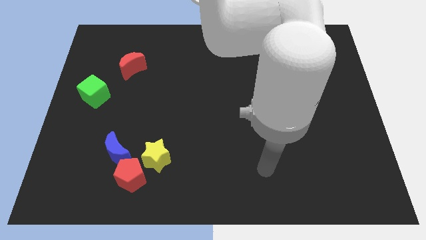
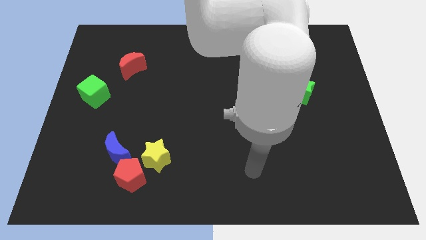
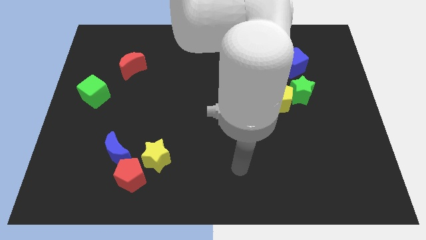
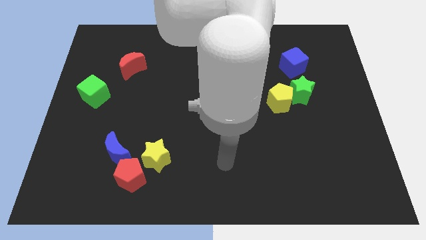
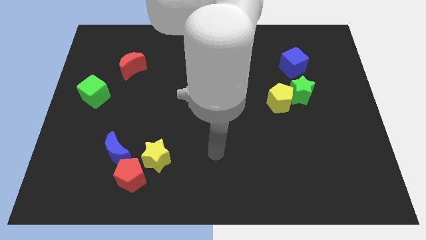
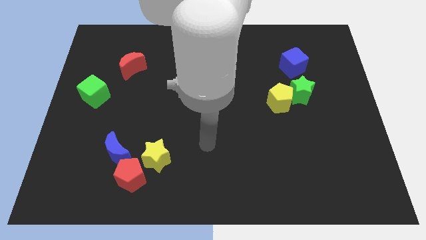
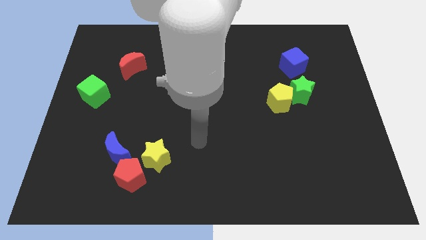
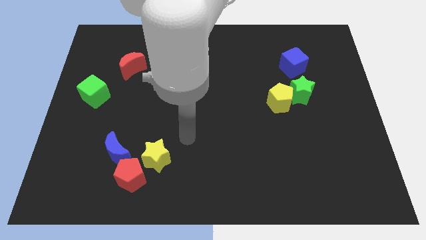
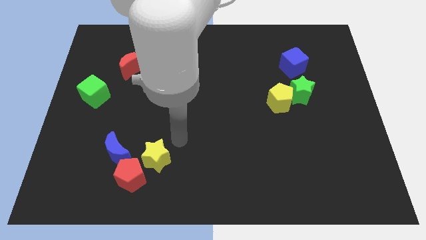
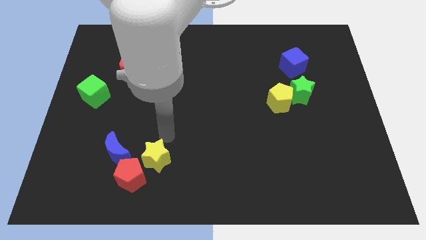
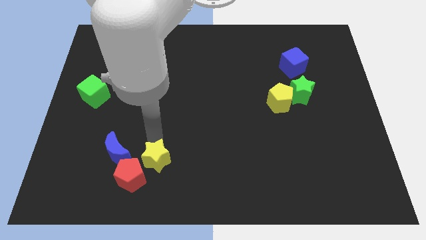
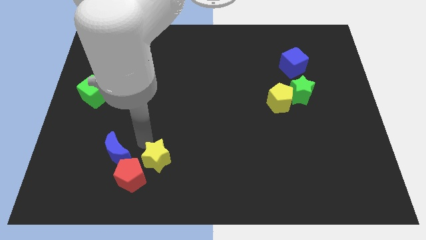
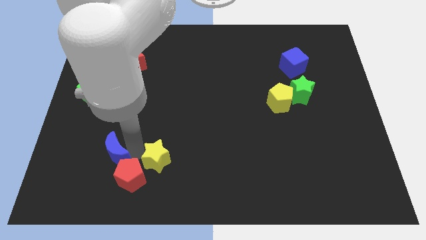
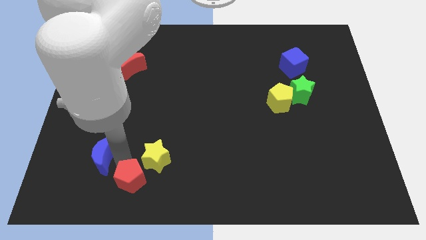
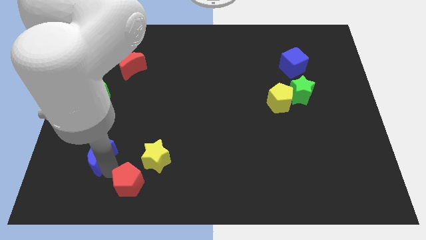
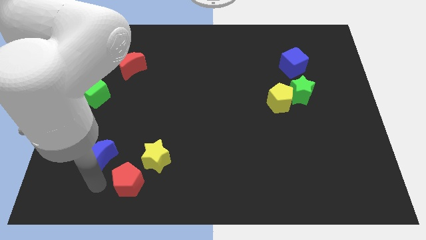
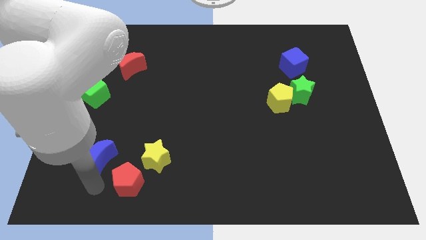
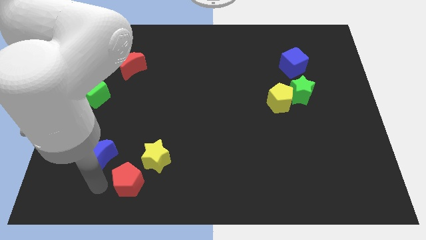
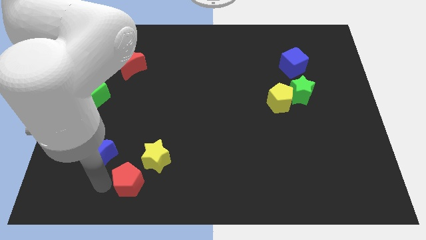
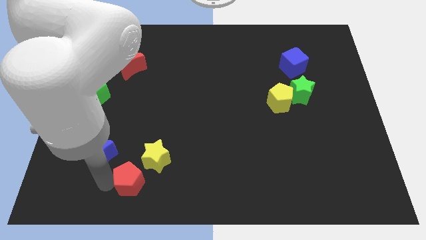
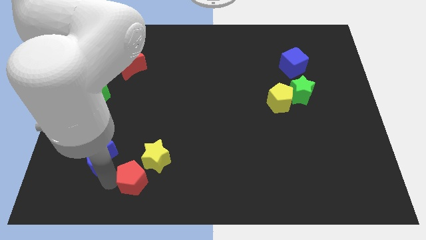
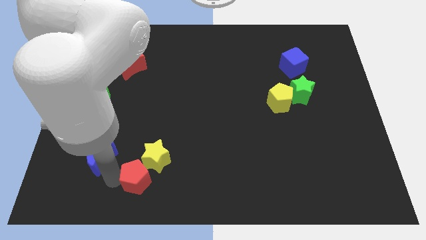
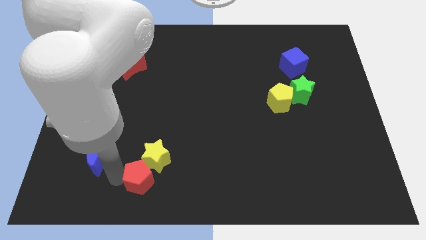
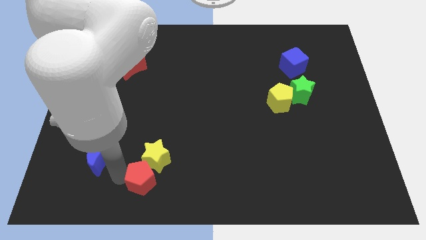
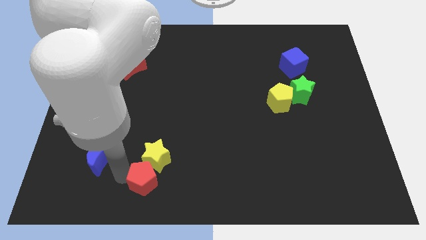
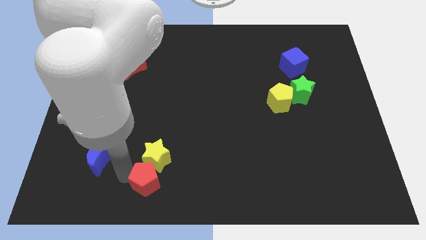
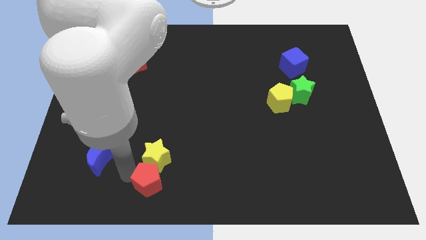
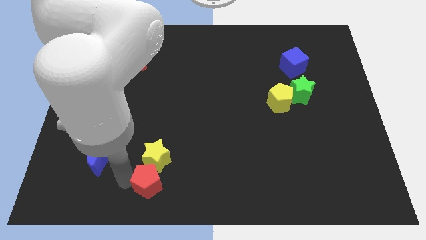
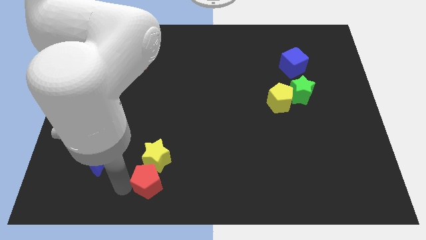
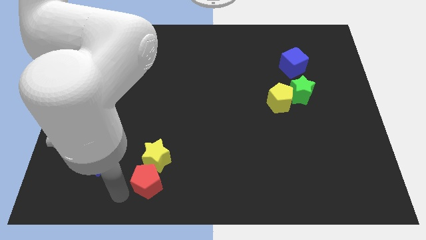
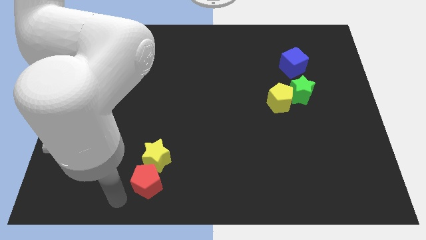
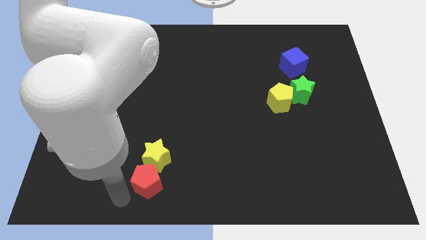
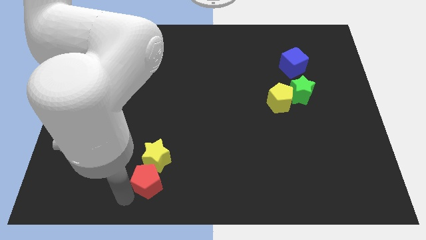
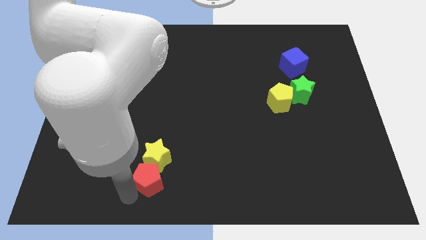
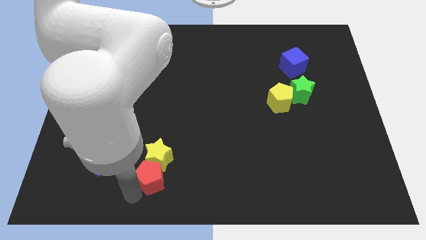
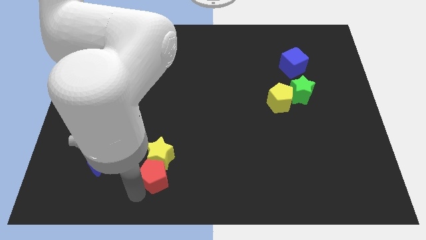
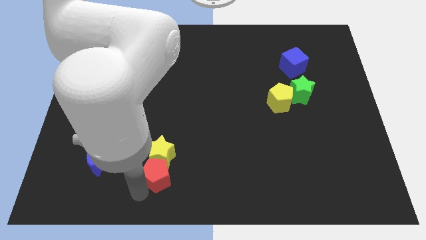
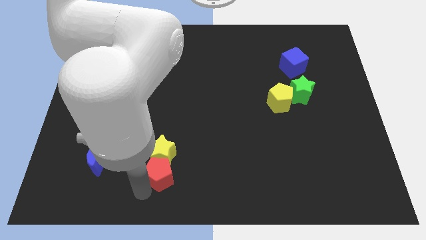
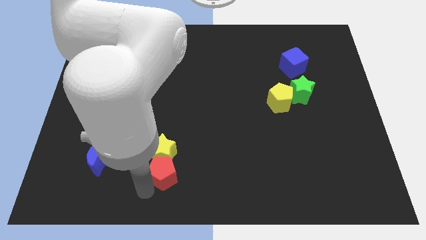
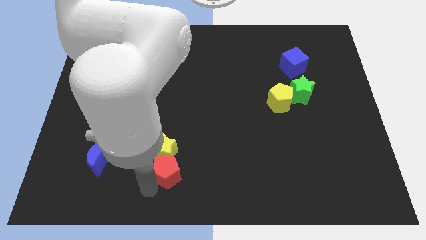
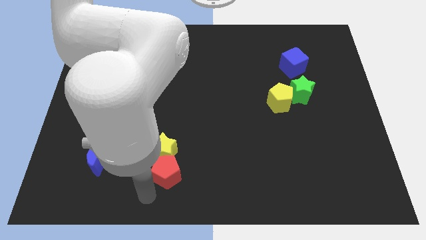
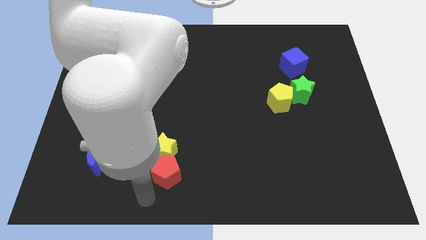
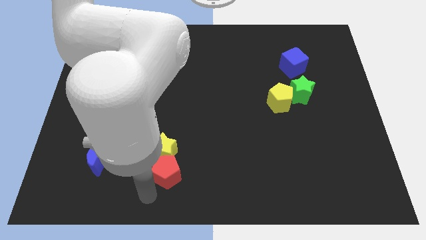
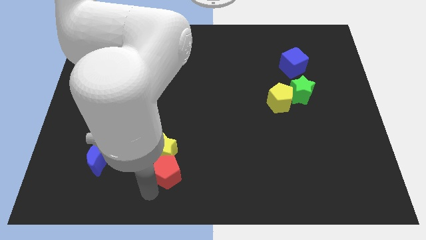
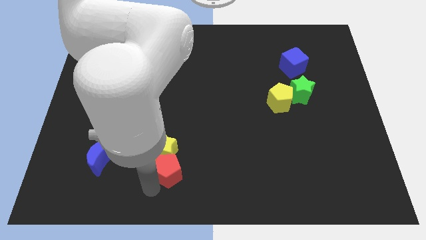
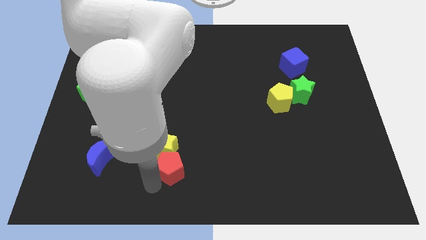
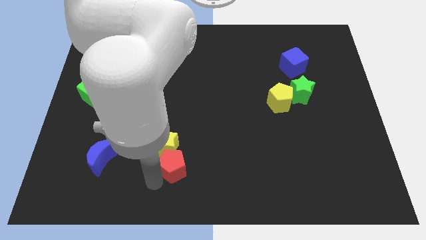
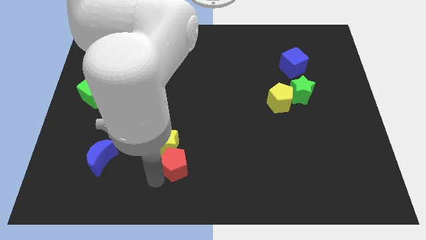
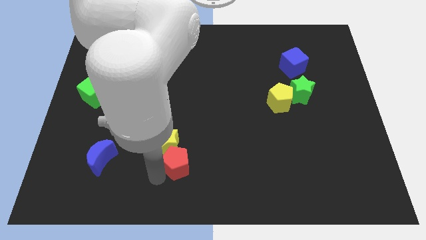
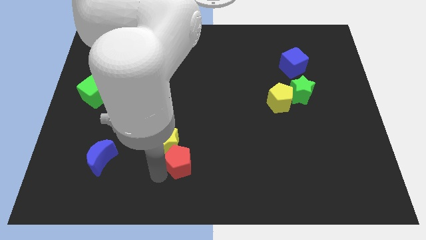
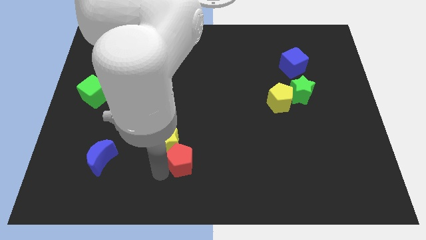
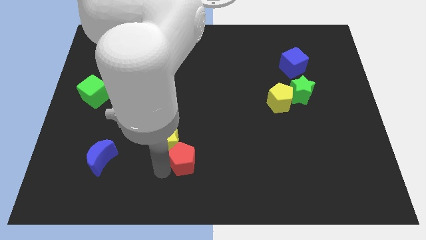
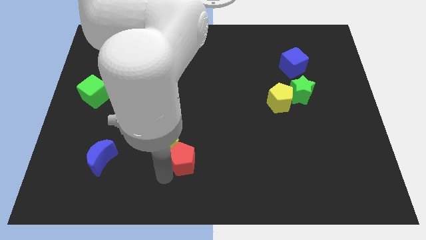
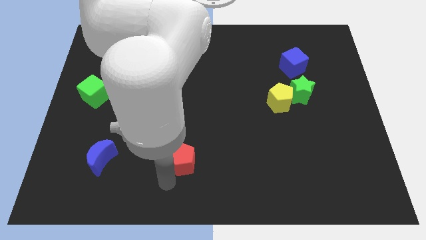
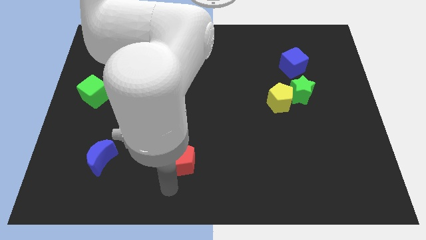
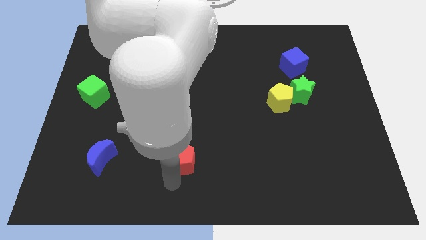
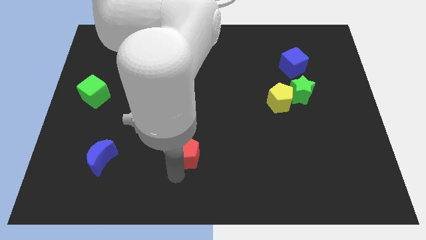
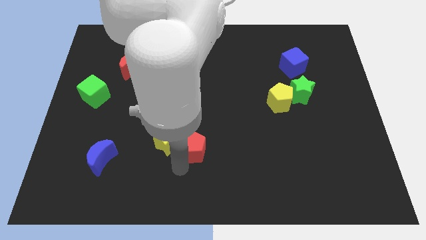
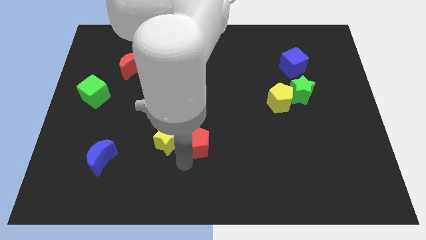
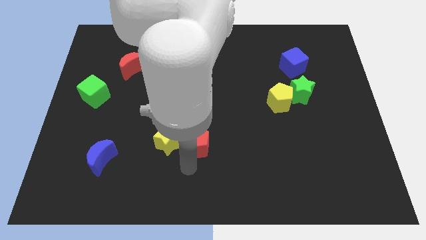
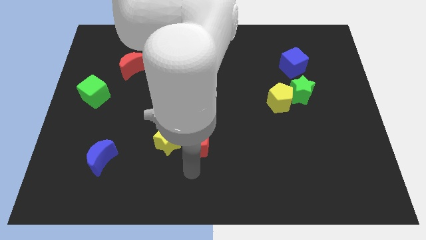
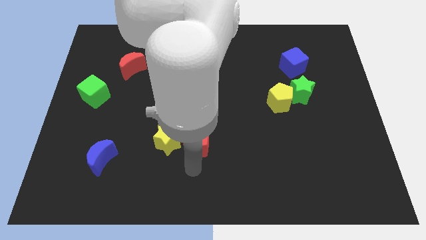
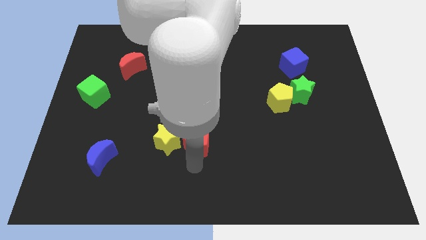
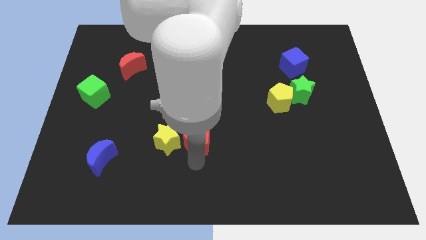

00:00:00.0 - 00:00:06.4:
push the red pentagon to the center
